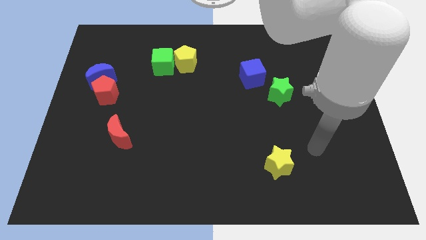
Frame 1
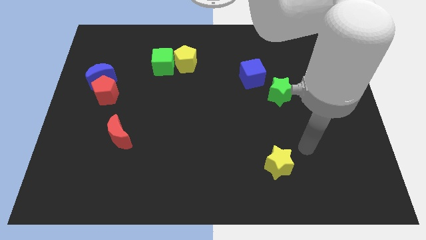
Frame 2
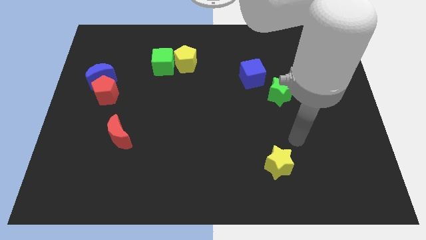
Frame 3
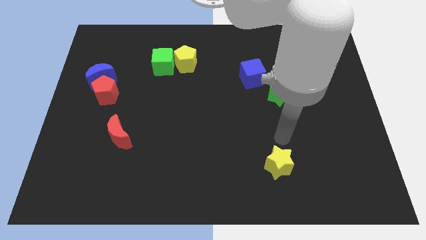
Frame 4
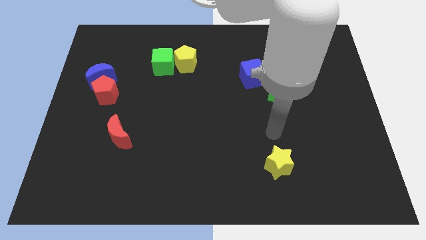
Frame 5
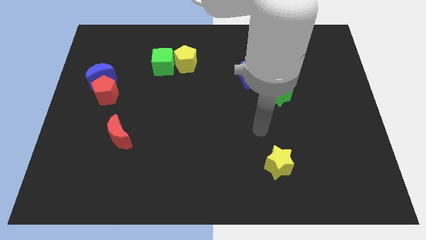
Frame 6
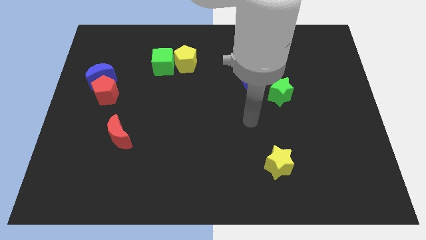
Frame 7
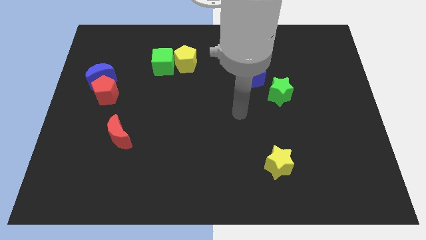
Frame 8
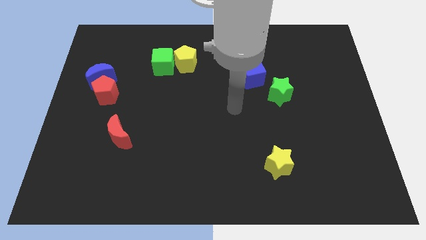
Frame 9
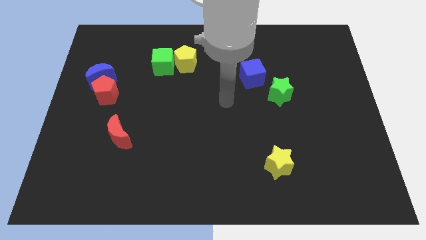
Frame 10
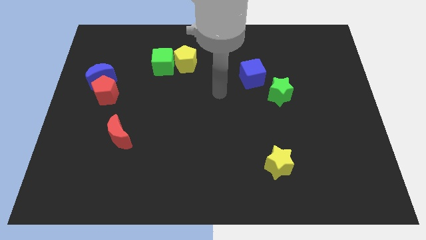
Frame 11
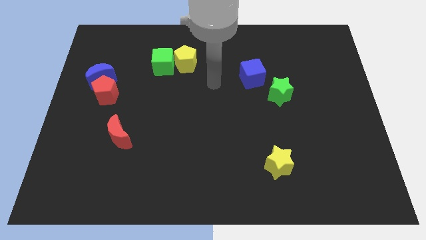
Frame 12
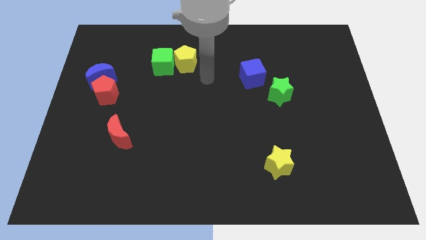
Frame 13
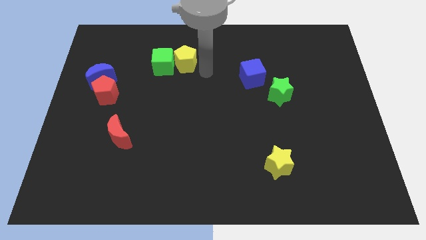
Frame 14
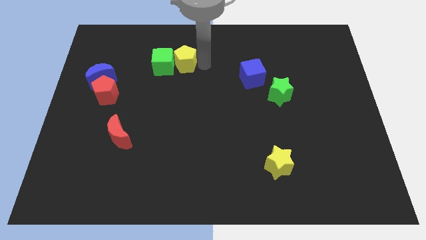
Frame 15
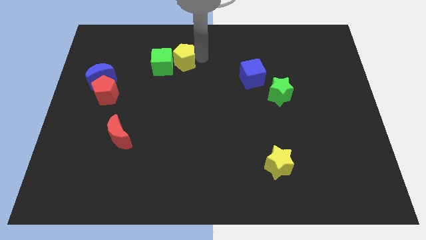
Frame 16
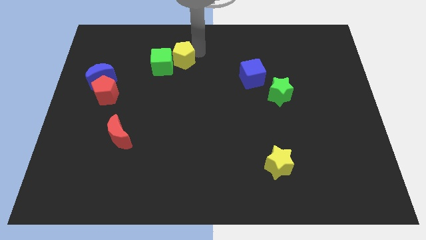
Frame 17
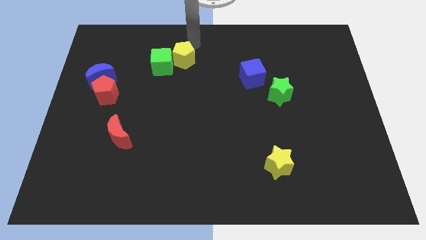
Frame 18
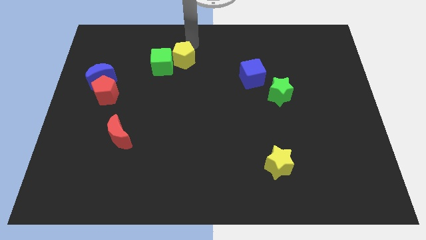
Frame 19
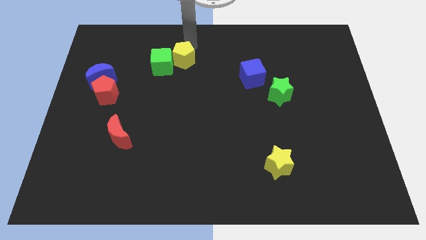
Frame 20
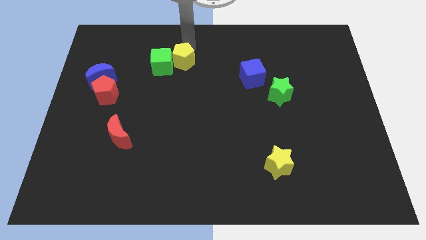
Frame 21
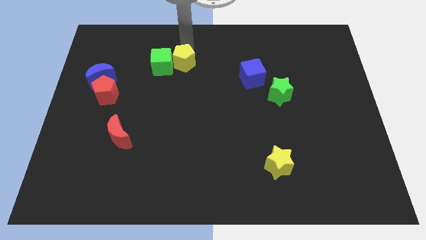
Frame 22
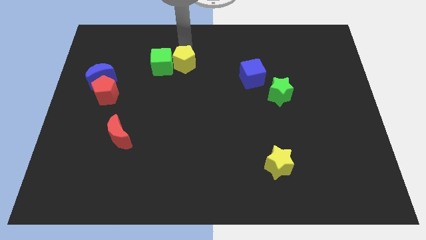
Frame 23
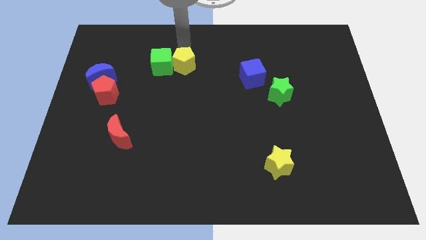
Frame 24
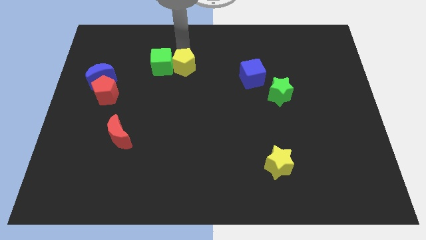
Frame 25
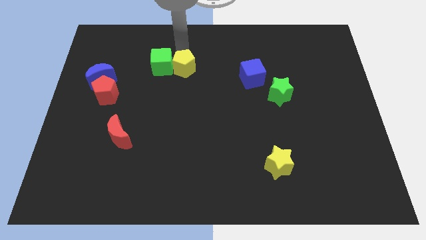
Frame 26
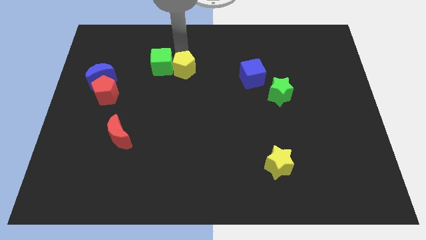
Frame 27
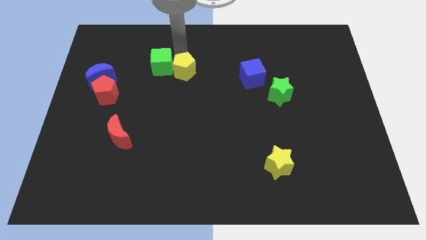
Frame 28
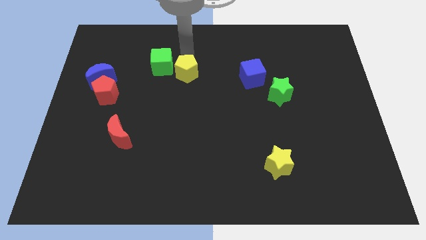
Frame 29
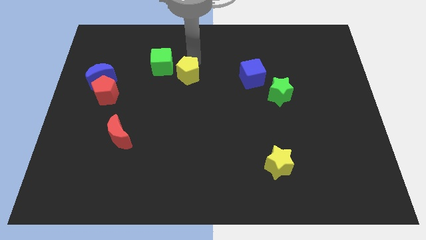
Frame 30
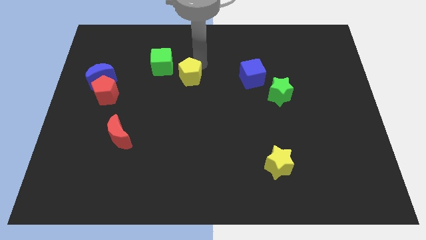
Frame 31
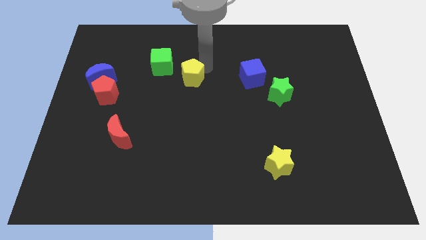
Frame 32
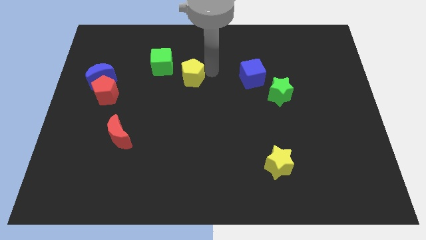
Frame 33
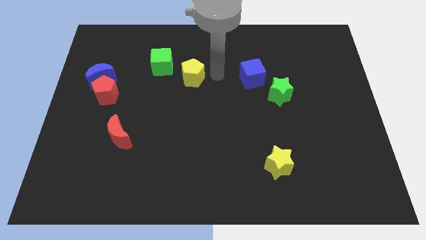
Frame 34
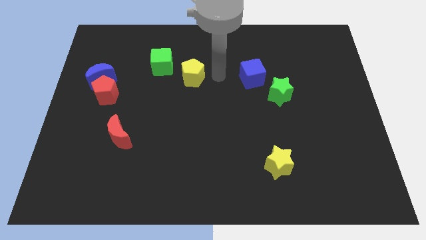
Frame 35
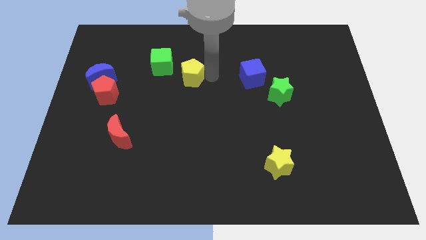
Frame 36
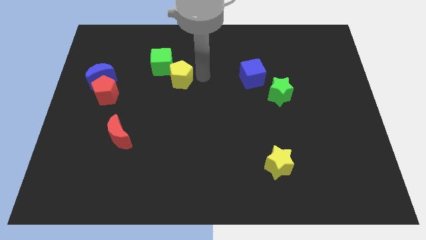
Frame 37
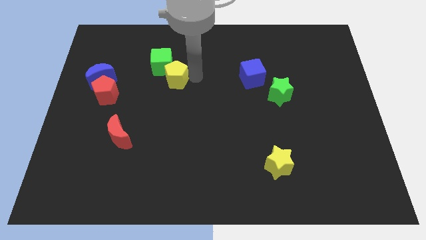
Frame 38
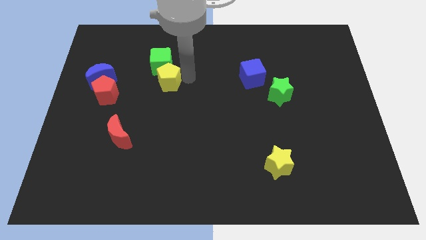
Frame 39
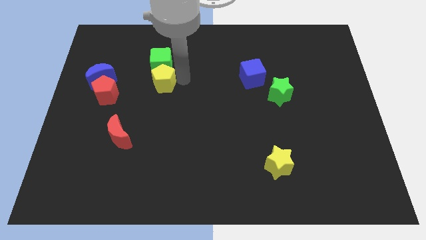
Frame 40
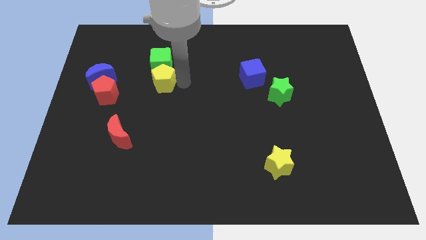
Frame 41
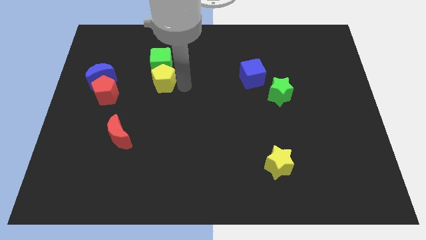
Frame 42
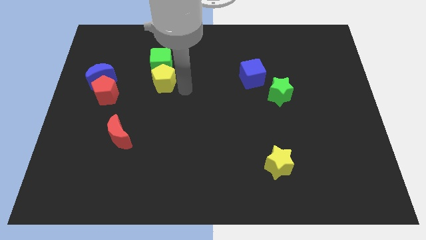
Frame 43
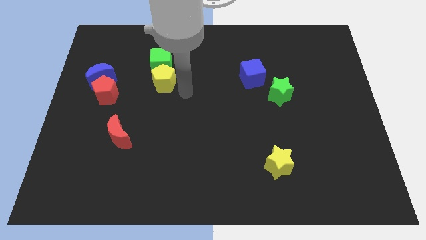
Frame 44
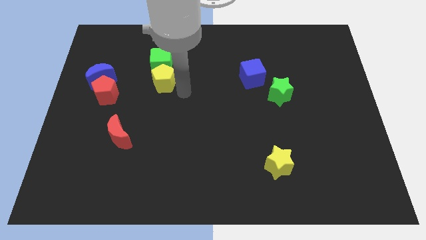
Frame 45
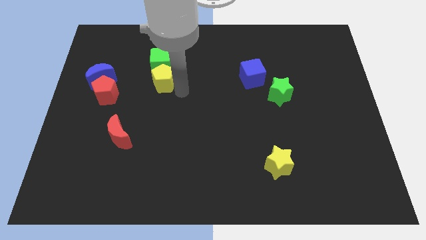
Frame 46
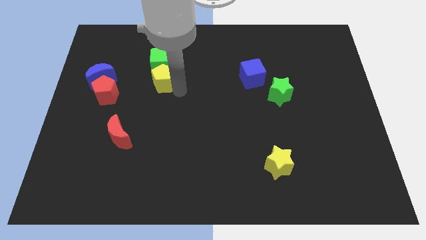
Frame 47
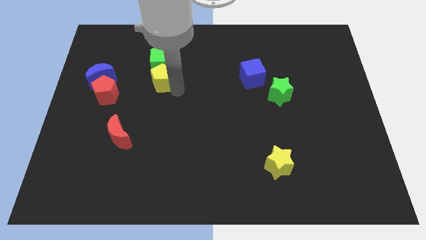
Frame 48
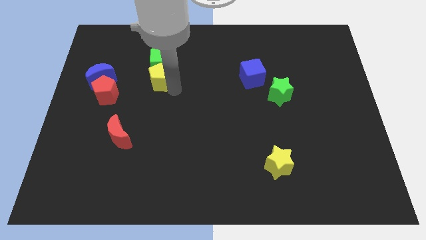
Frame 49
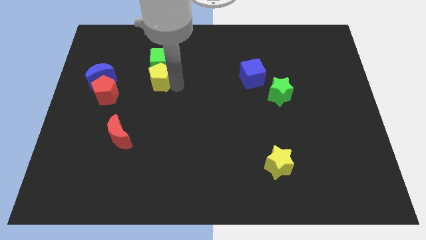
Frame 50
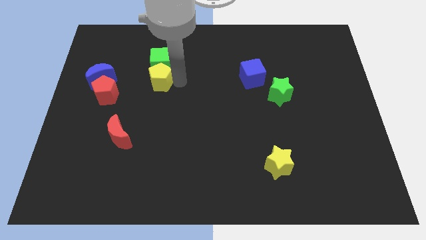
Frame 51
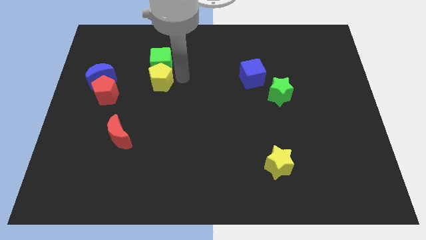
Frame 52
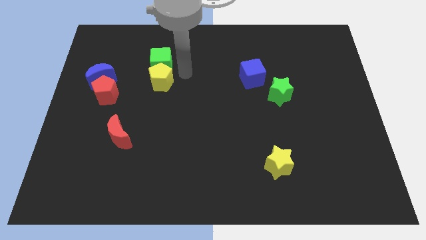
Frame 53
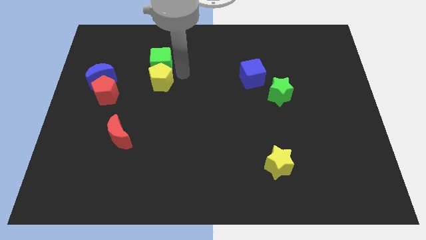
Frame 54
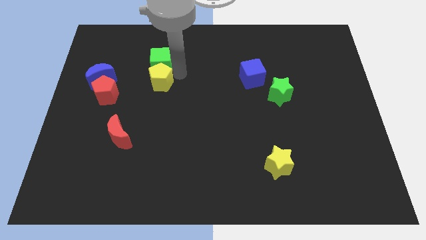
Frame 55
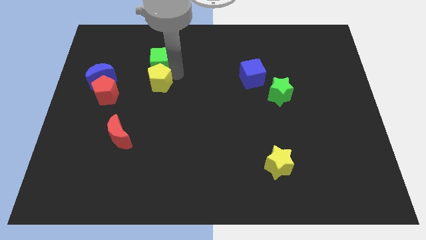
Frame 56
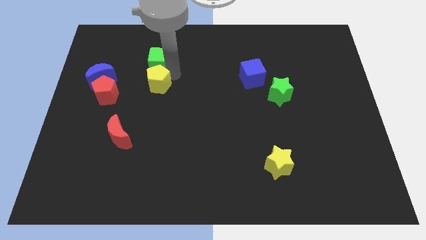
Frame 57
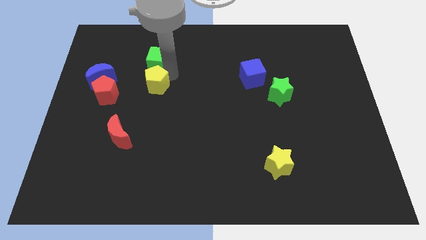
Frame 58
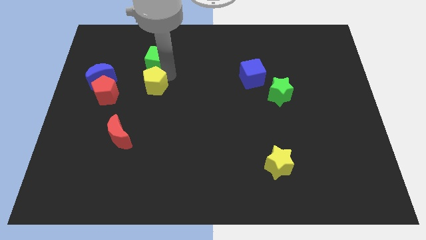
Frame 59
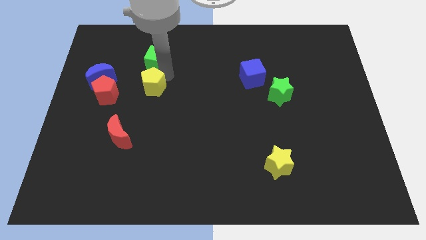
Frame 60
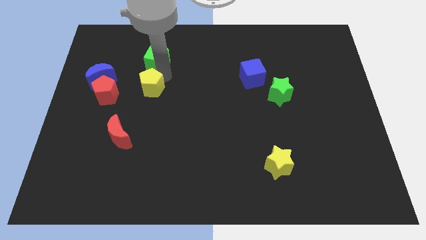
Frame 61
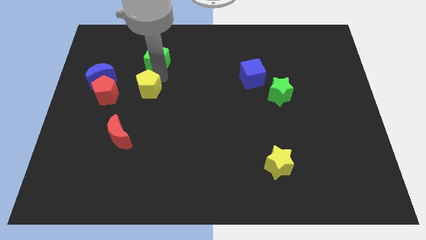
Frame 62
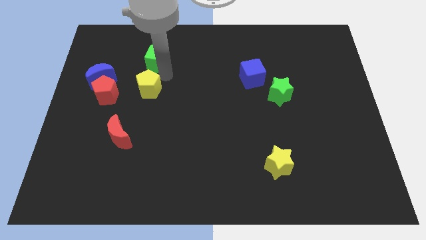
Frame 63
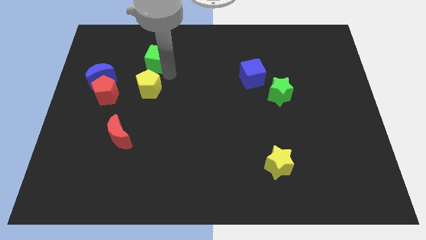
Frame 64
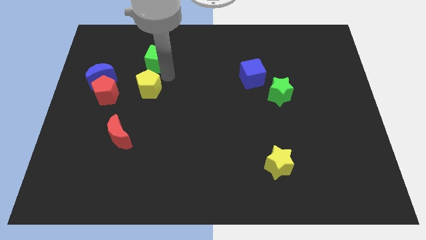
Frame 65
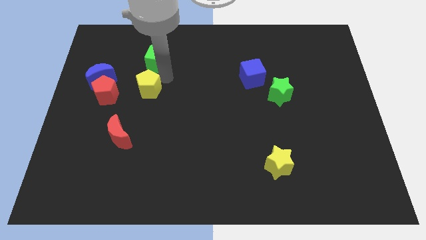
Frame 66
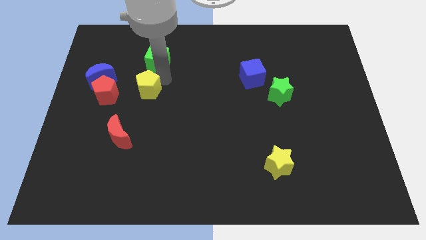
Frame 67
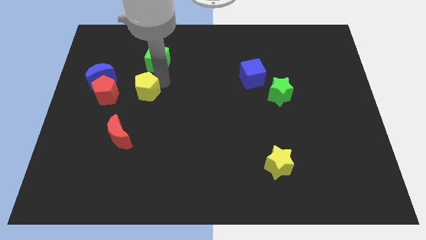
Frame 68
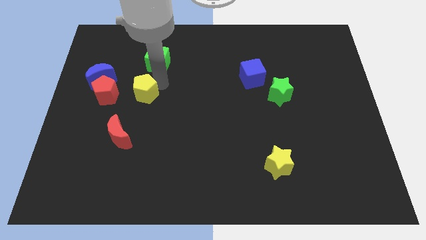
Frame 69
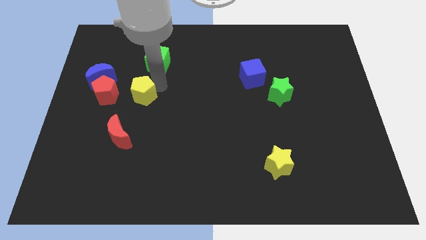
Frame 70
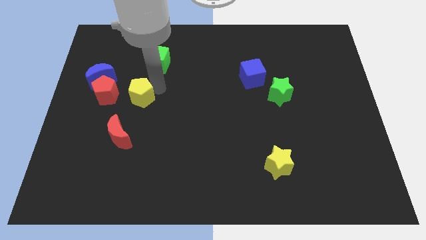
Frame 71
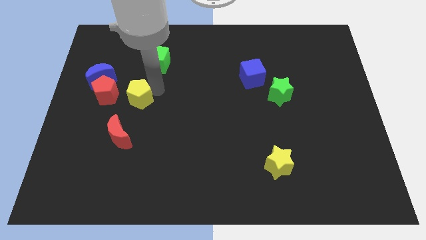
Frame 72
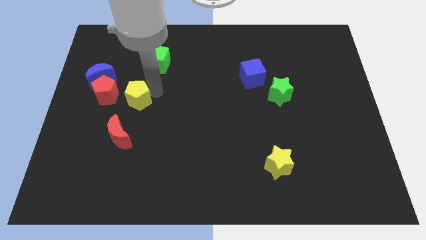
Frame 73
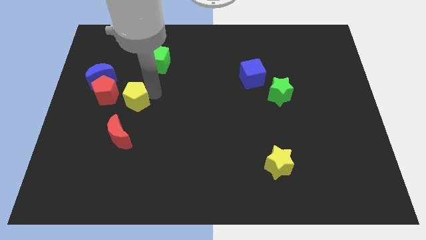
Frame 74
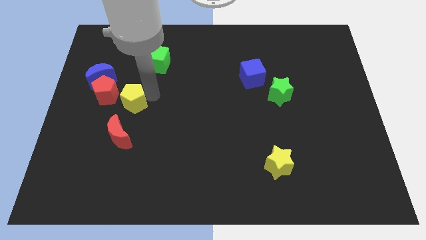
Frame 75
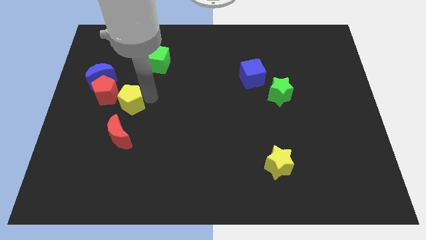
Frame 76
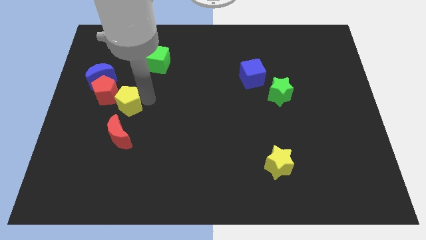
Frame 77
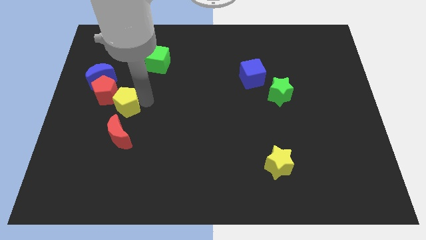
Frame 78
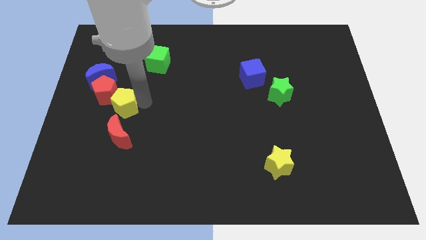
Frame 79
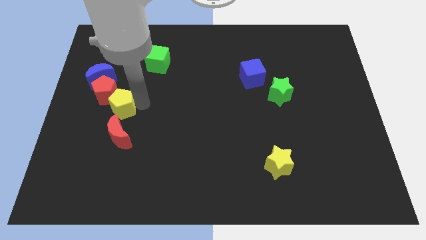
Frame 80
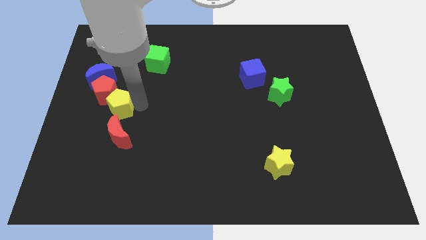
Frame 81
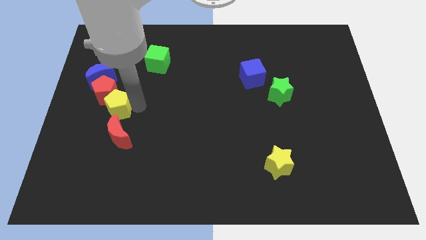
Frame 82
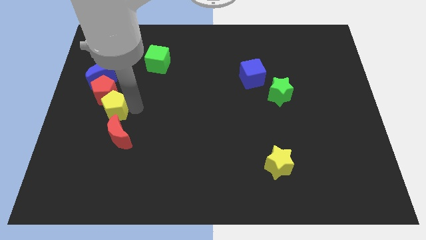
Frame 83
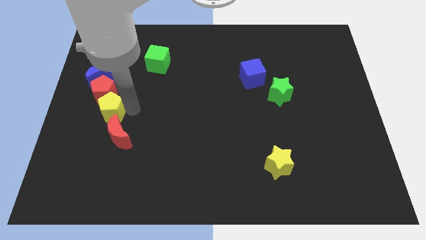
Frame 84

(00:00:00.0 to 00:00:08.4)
put the yellow pentagon to the bottom side of the blue moon
